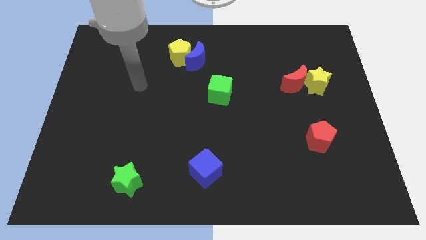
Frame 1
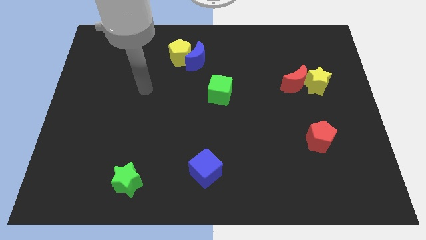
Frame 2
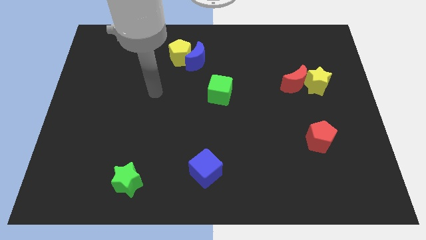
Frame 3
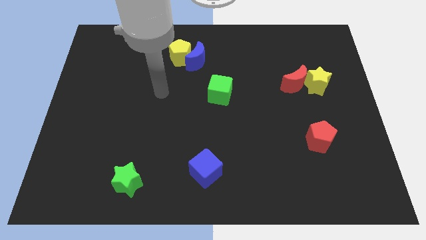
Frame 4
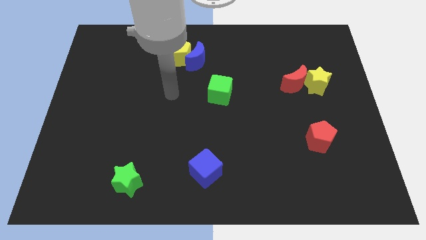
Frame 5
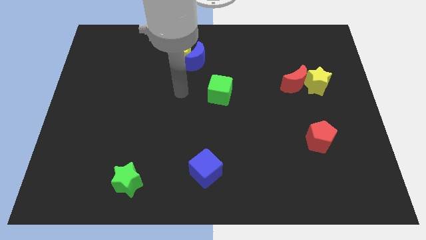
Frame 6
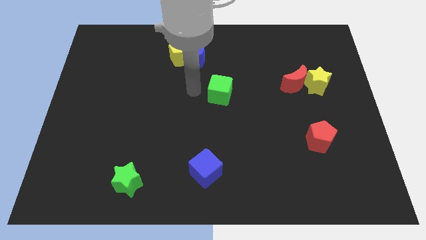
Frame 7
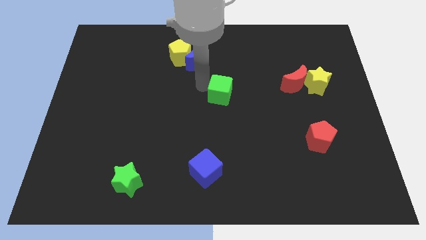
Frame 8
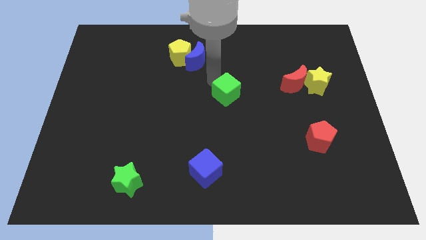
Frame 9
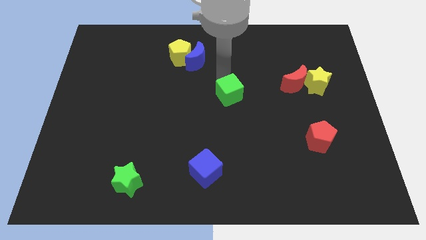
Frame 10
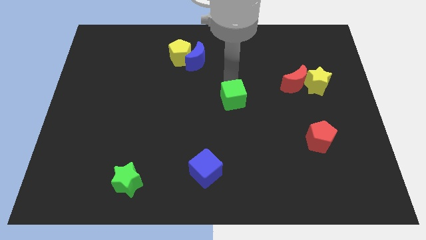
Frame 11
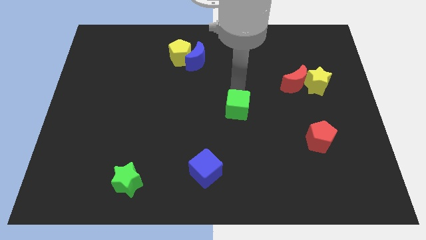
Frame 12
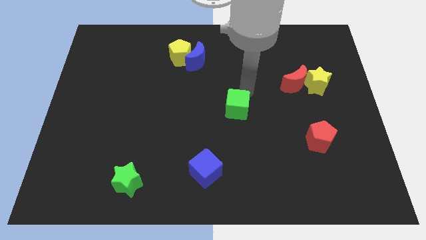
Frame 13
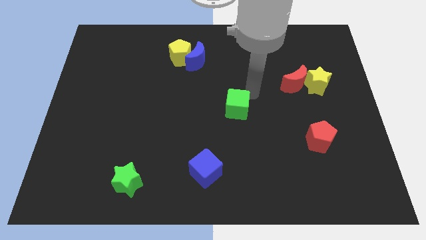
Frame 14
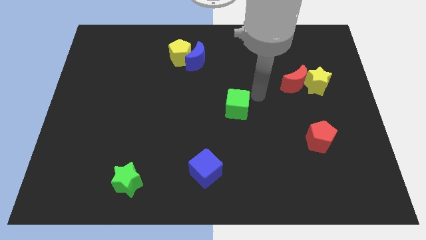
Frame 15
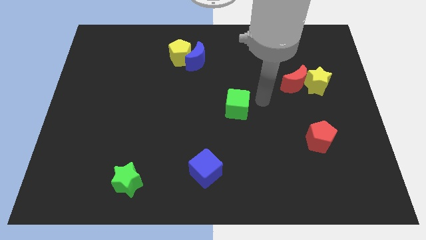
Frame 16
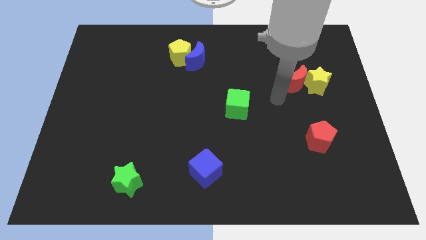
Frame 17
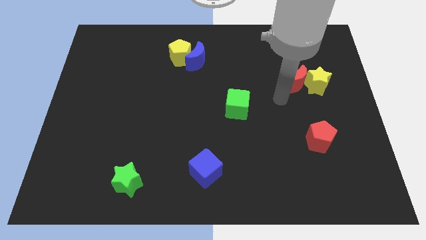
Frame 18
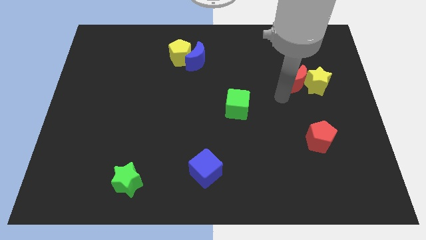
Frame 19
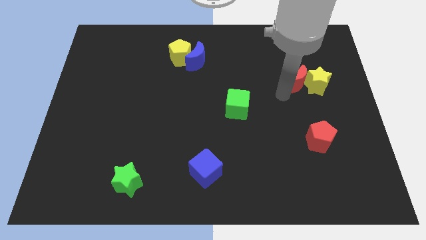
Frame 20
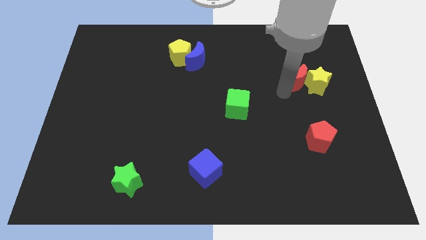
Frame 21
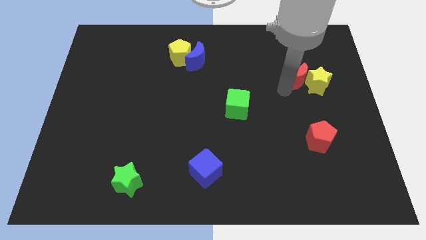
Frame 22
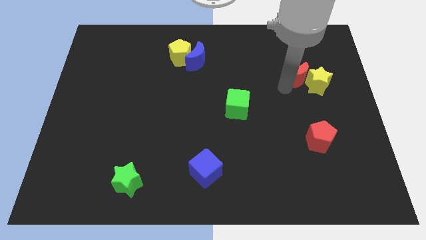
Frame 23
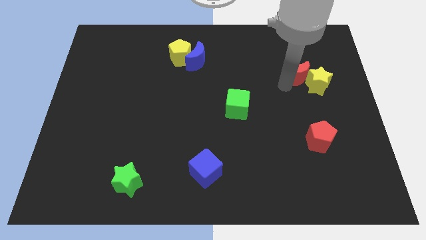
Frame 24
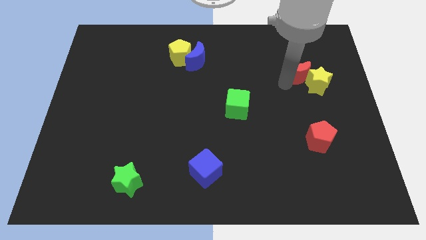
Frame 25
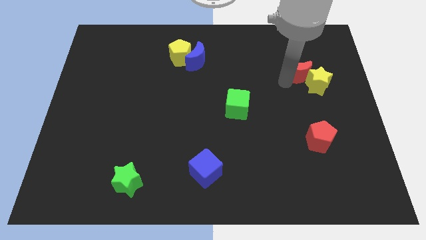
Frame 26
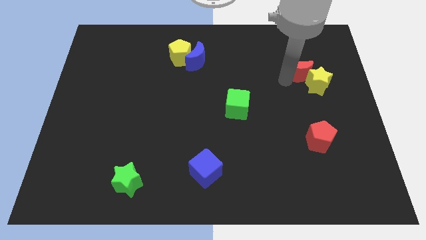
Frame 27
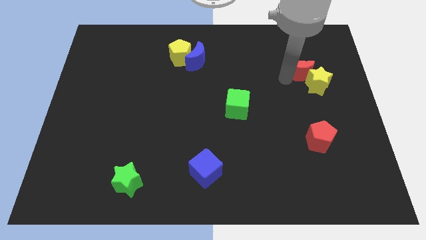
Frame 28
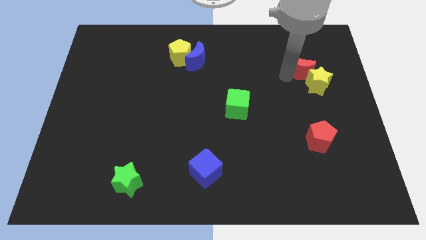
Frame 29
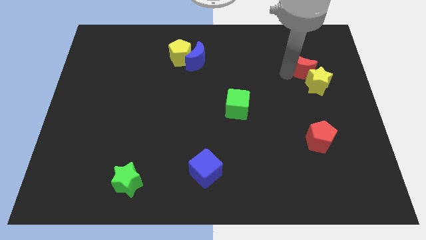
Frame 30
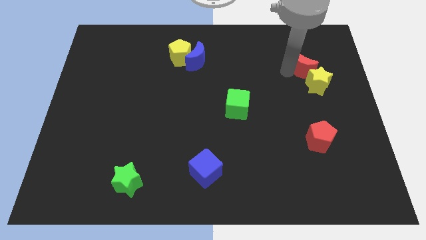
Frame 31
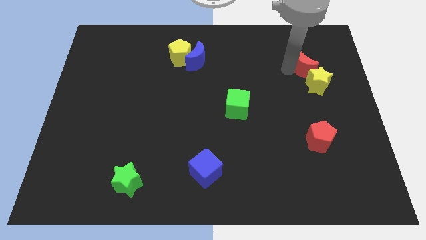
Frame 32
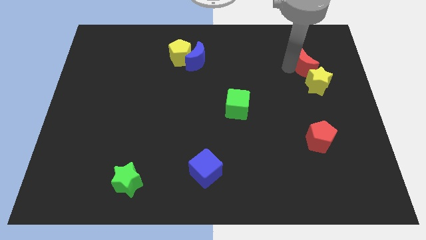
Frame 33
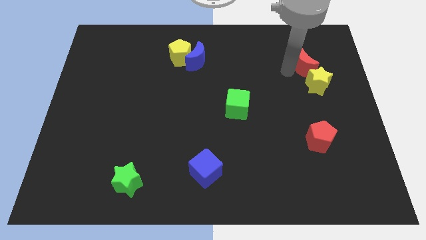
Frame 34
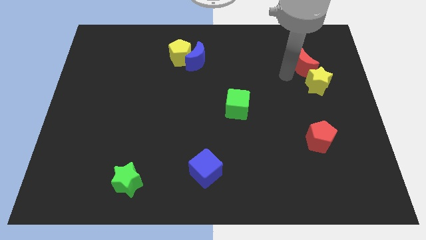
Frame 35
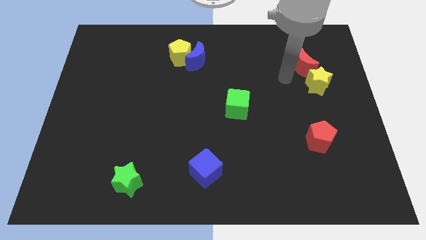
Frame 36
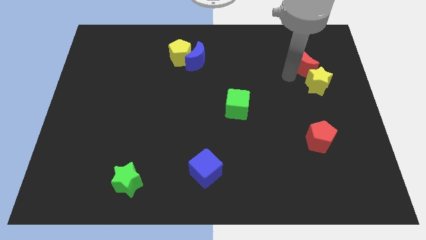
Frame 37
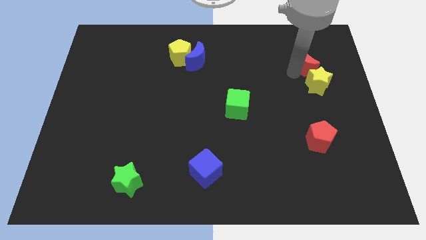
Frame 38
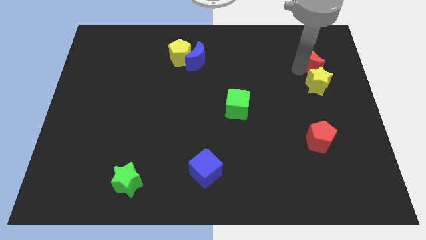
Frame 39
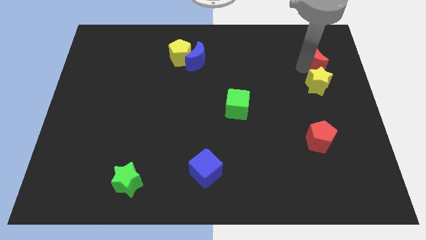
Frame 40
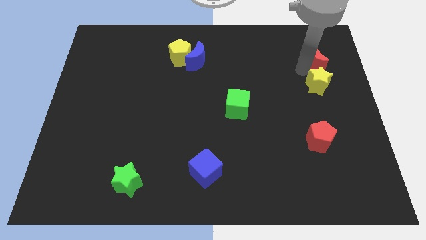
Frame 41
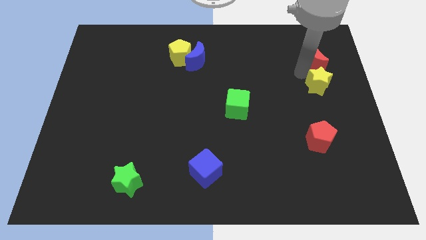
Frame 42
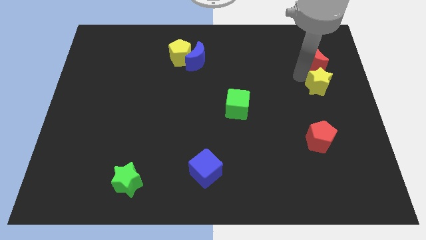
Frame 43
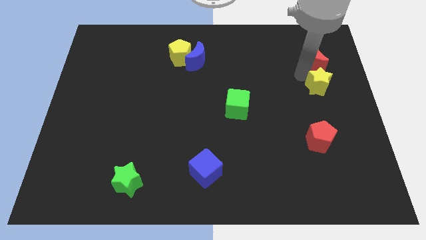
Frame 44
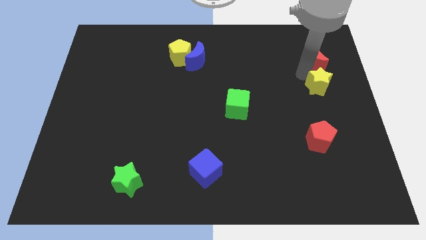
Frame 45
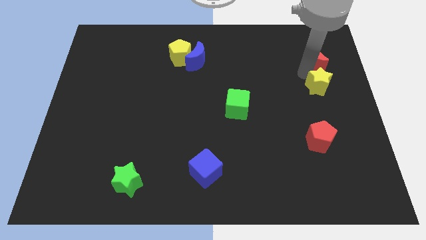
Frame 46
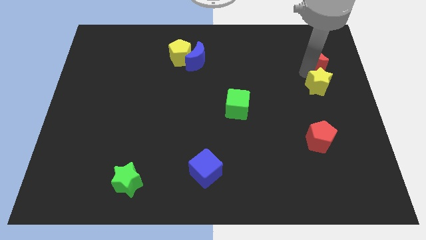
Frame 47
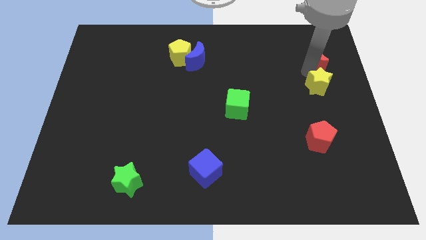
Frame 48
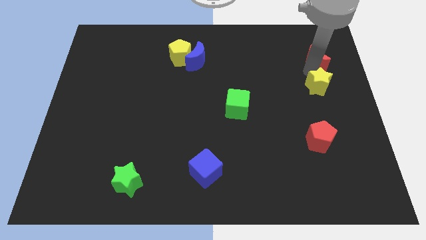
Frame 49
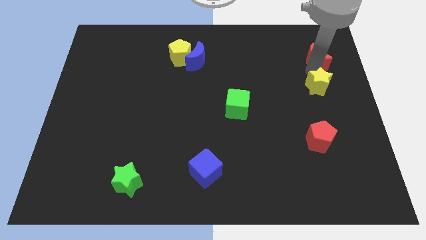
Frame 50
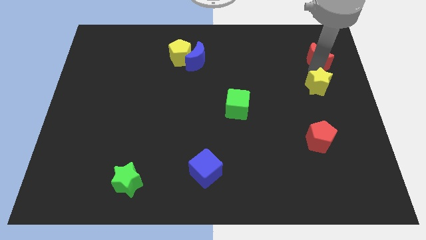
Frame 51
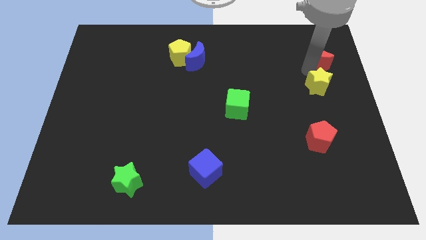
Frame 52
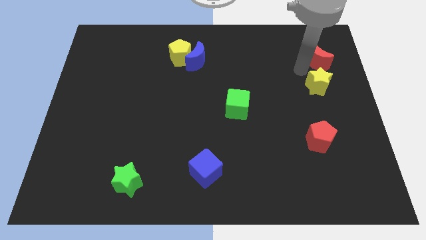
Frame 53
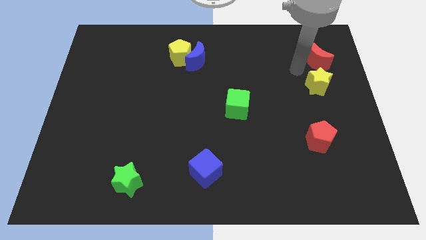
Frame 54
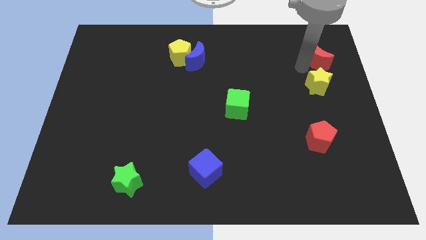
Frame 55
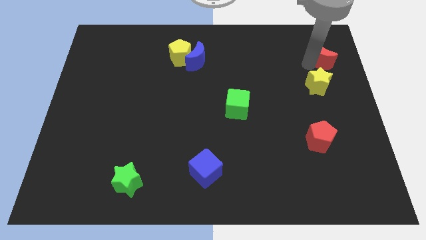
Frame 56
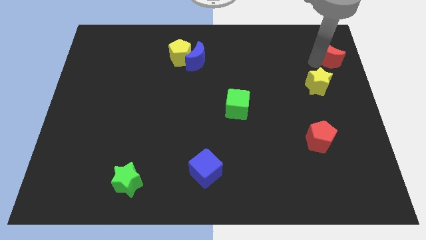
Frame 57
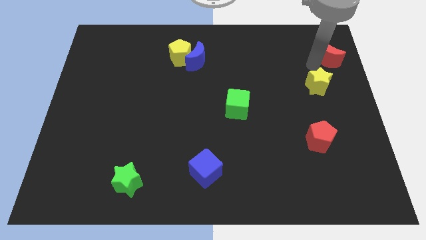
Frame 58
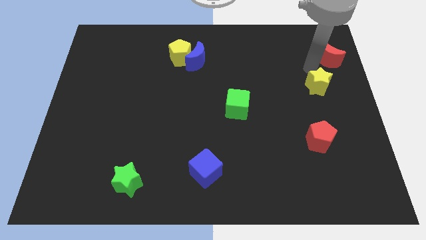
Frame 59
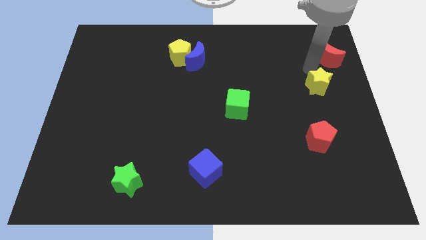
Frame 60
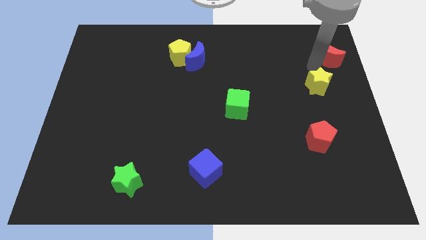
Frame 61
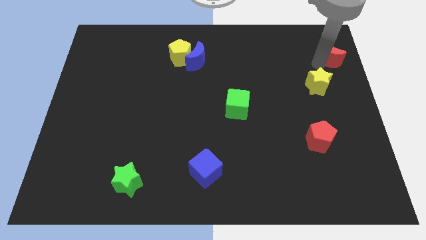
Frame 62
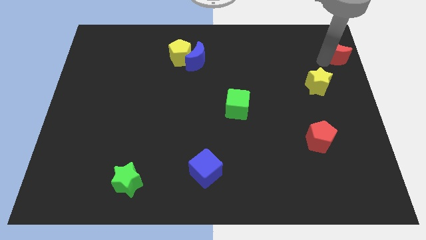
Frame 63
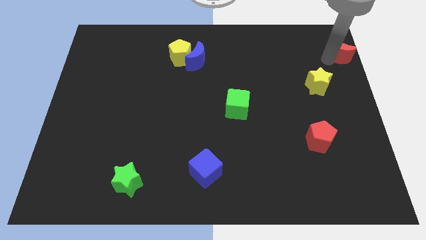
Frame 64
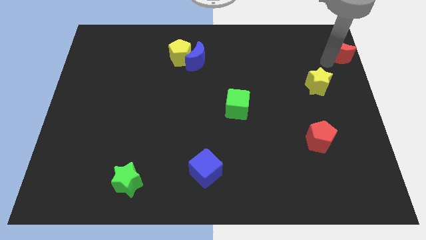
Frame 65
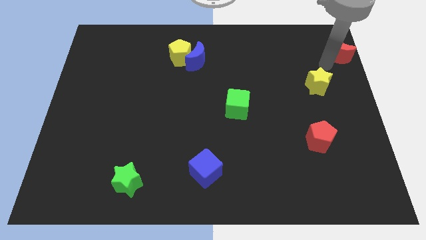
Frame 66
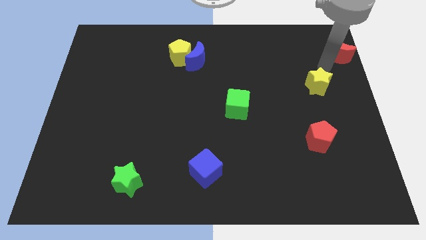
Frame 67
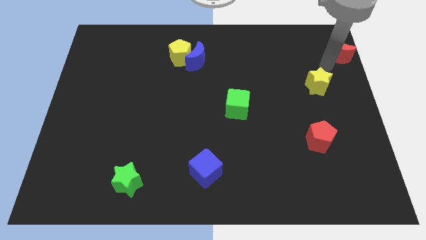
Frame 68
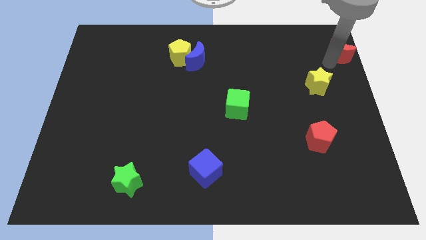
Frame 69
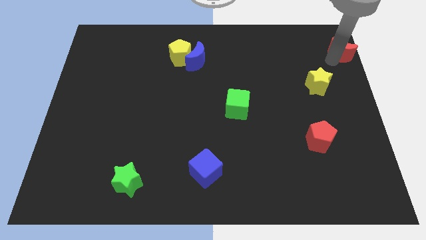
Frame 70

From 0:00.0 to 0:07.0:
put the red moon to the top right corner

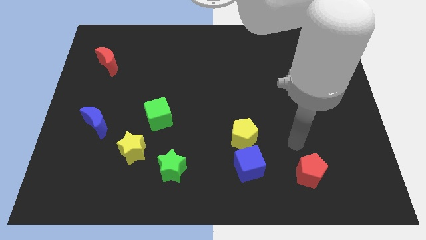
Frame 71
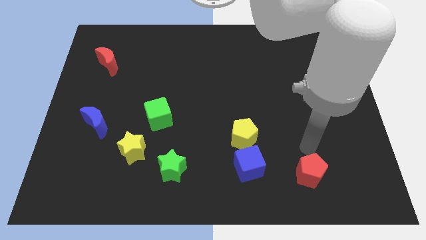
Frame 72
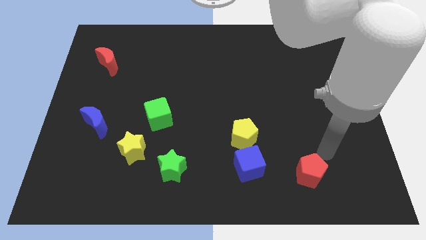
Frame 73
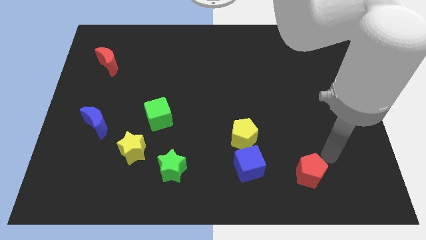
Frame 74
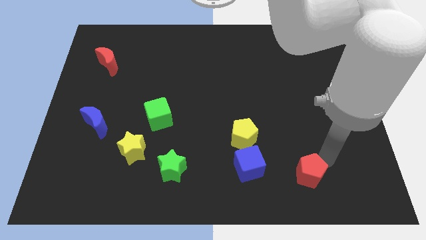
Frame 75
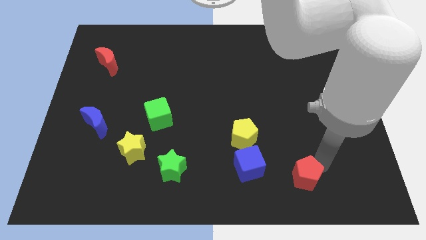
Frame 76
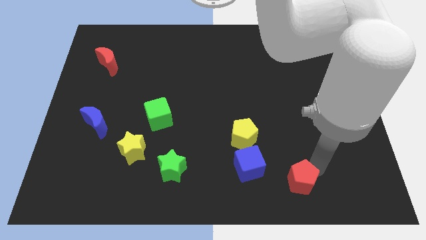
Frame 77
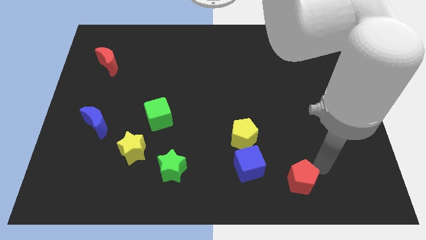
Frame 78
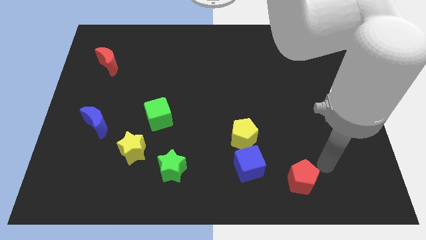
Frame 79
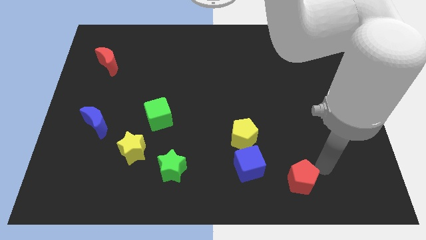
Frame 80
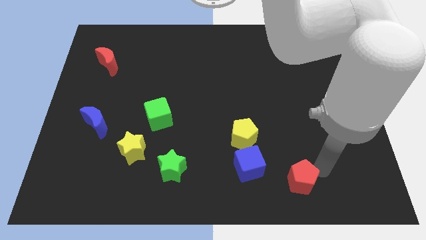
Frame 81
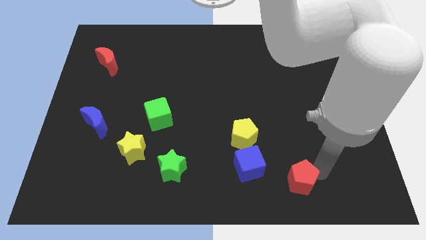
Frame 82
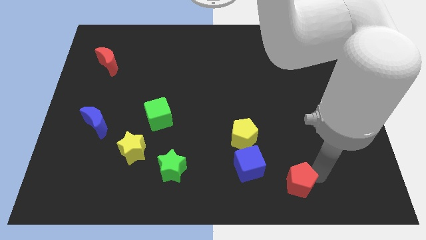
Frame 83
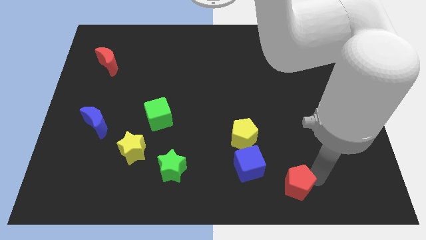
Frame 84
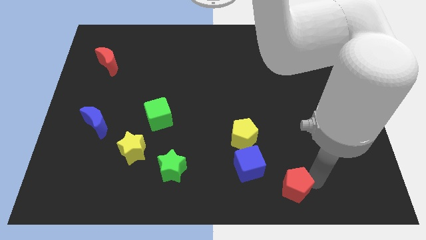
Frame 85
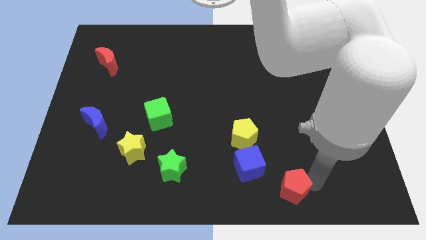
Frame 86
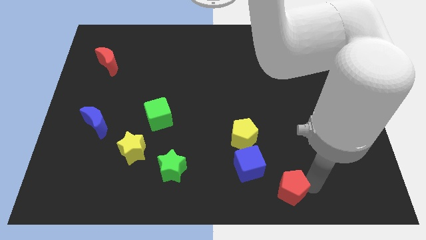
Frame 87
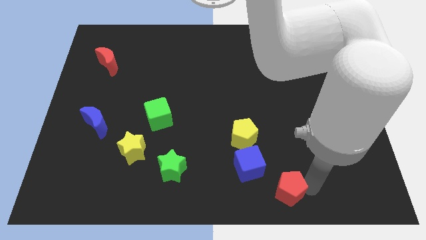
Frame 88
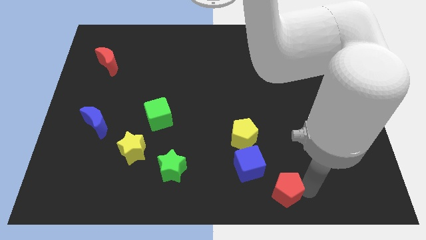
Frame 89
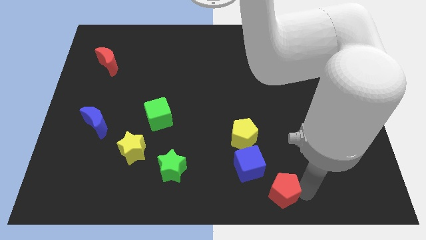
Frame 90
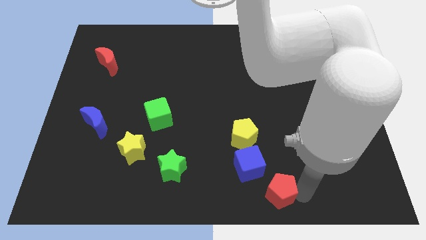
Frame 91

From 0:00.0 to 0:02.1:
move the red pentagon to the bottom
